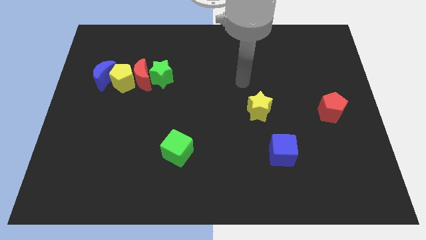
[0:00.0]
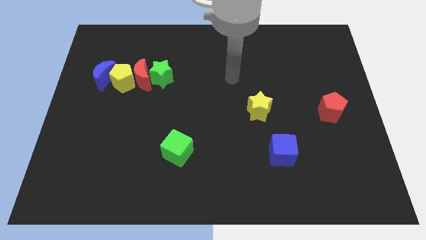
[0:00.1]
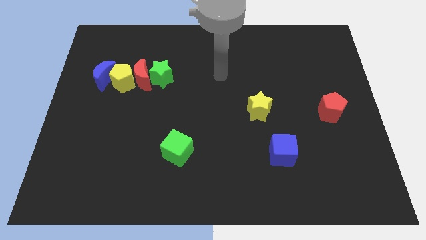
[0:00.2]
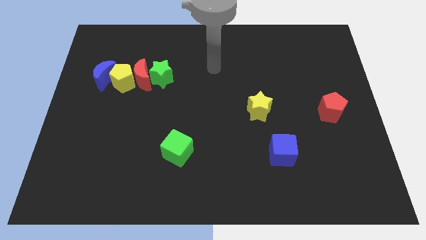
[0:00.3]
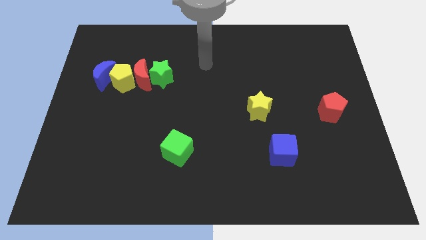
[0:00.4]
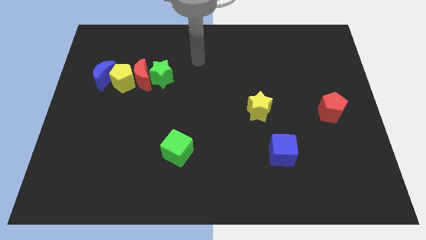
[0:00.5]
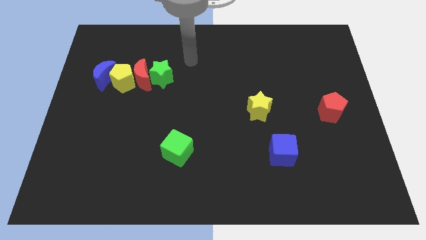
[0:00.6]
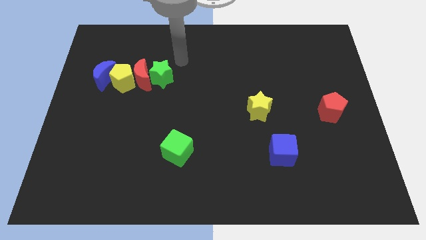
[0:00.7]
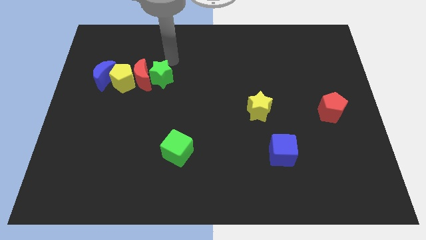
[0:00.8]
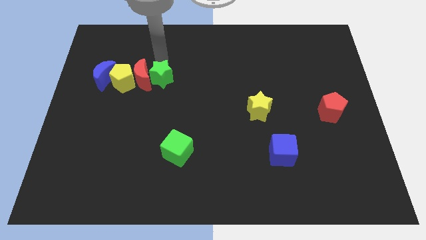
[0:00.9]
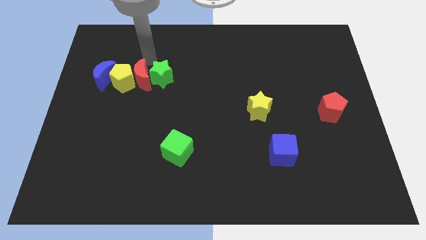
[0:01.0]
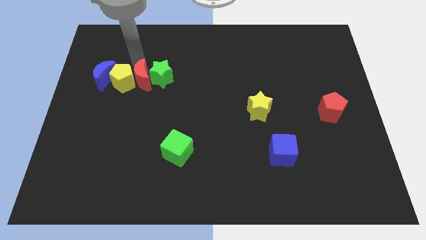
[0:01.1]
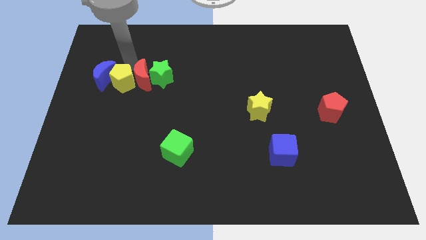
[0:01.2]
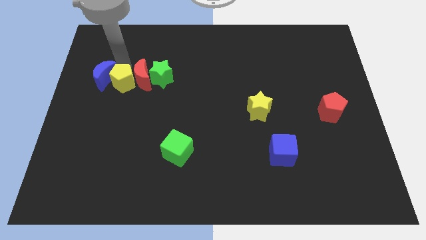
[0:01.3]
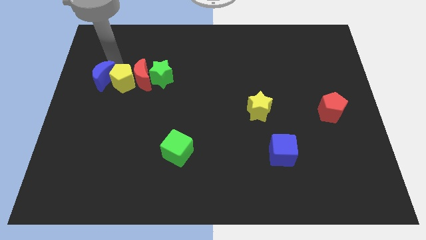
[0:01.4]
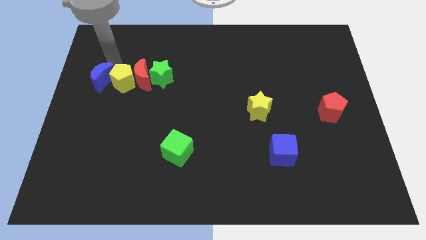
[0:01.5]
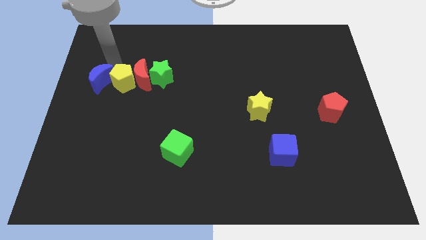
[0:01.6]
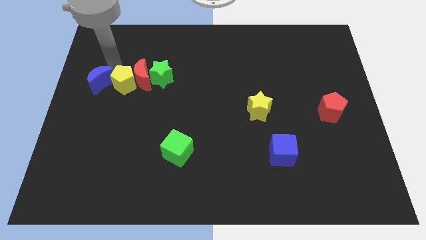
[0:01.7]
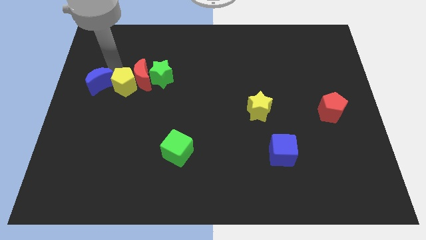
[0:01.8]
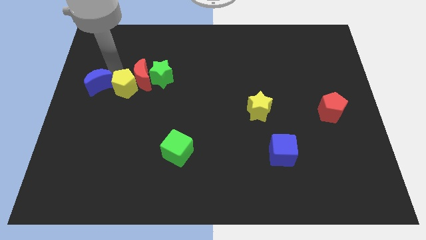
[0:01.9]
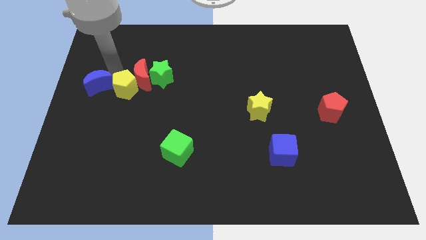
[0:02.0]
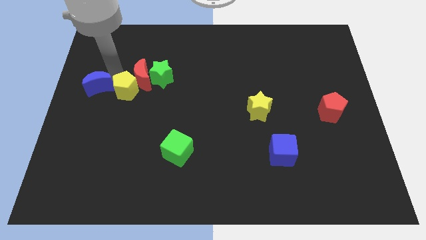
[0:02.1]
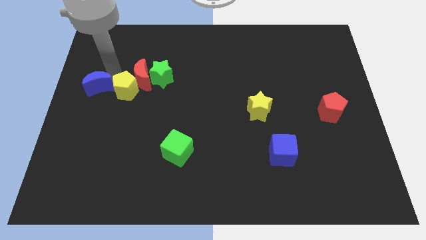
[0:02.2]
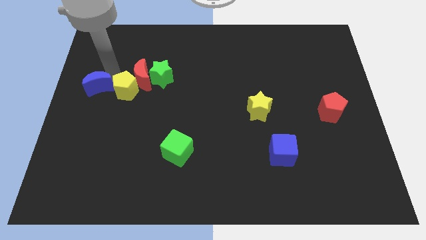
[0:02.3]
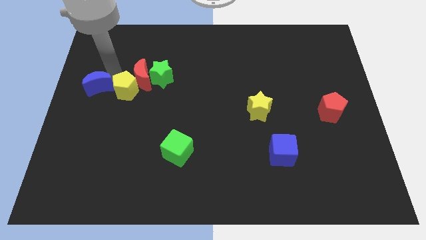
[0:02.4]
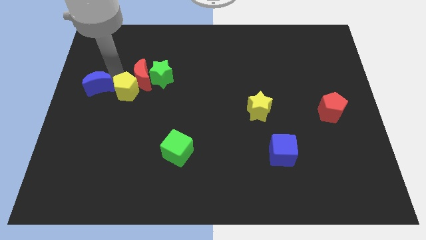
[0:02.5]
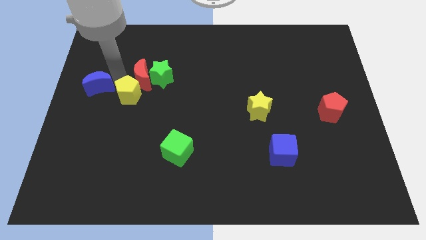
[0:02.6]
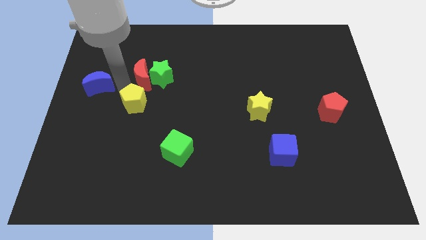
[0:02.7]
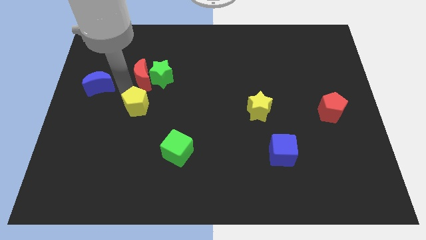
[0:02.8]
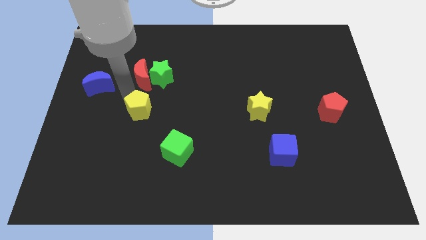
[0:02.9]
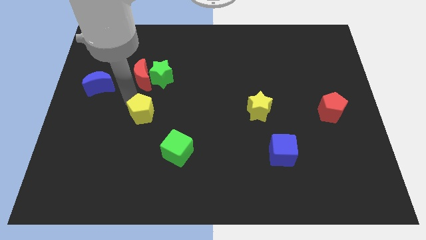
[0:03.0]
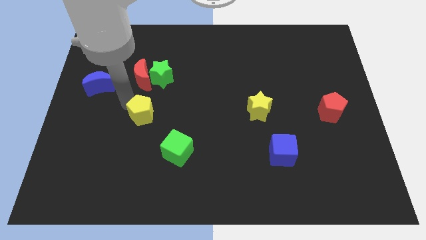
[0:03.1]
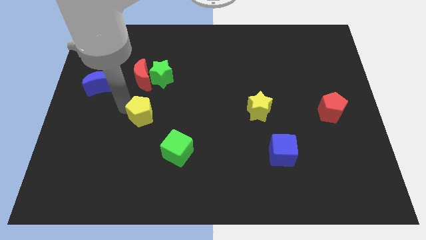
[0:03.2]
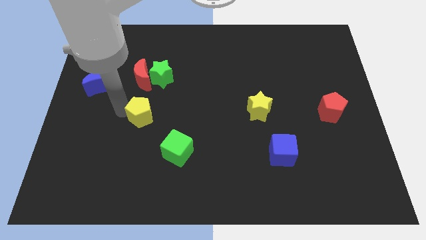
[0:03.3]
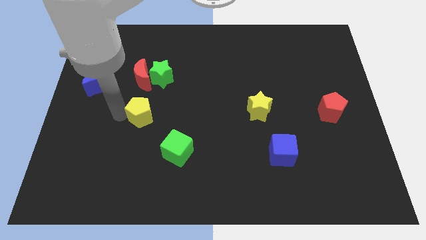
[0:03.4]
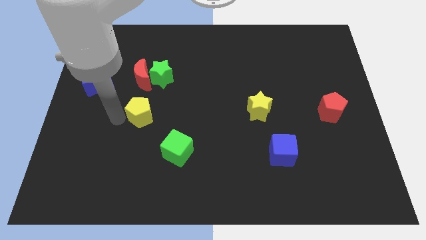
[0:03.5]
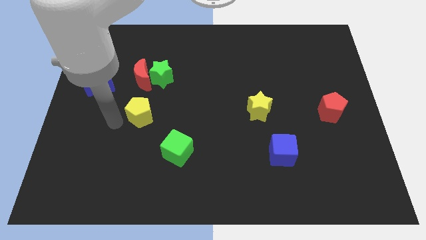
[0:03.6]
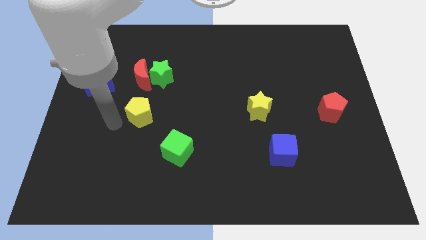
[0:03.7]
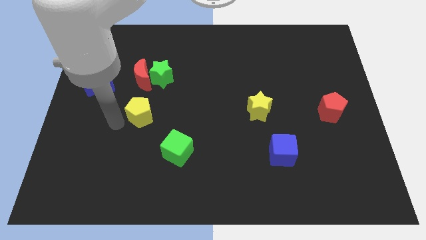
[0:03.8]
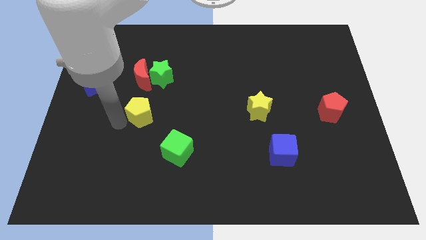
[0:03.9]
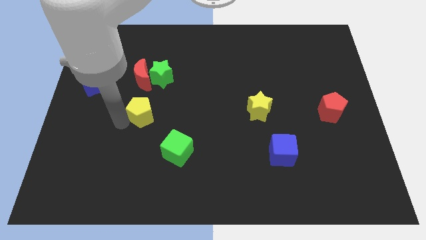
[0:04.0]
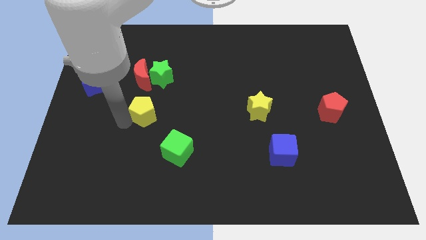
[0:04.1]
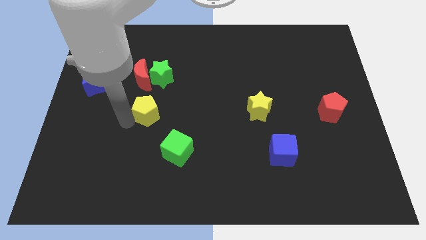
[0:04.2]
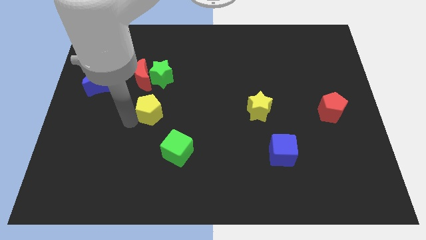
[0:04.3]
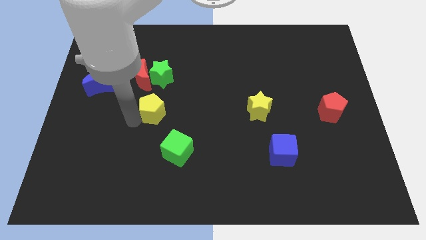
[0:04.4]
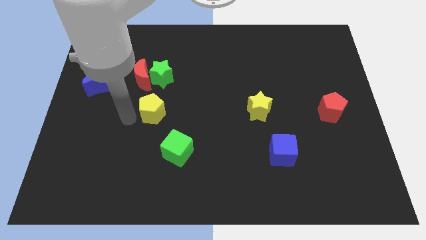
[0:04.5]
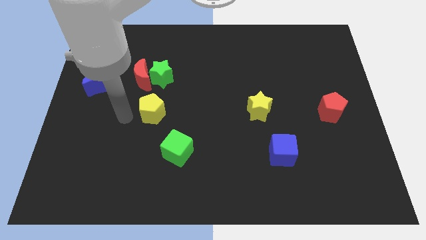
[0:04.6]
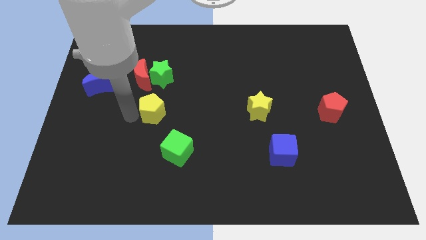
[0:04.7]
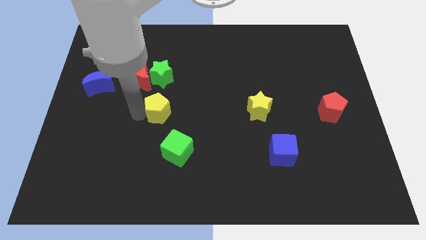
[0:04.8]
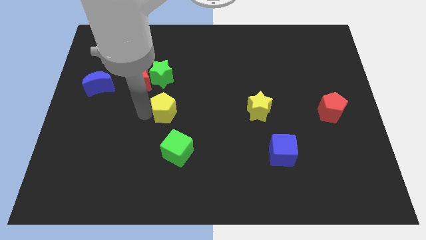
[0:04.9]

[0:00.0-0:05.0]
slide the yellow pentagon to the center of the board

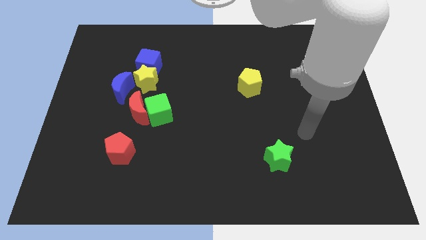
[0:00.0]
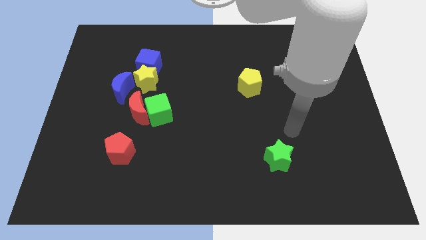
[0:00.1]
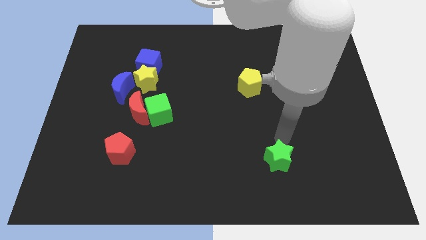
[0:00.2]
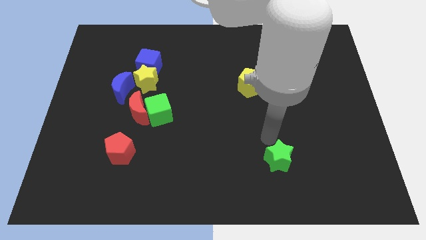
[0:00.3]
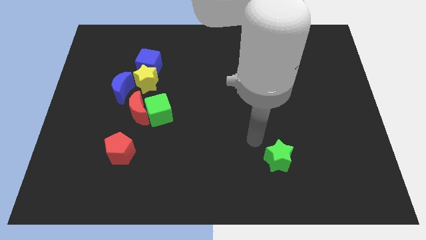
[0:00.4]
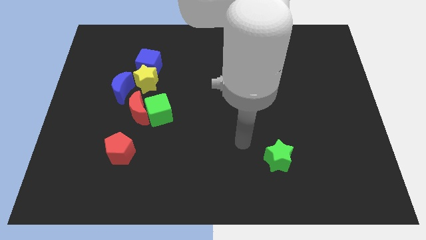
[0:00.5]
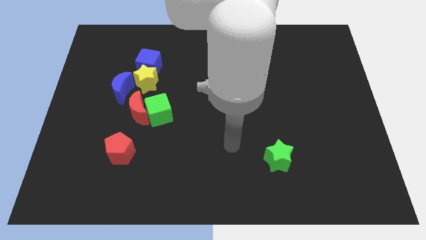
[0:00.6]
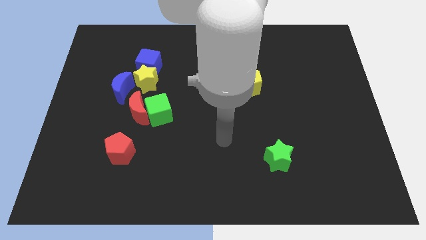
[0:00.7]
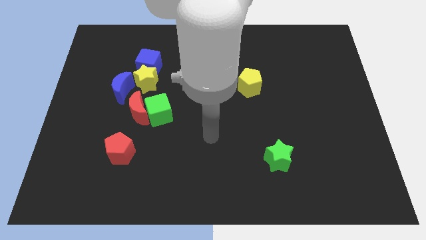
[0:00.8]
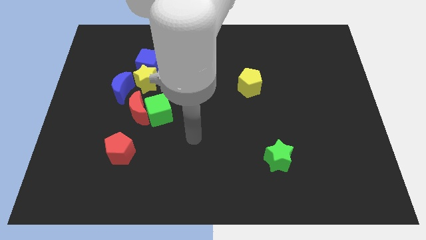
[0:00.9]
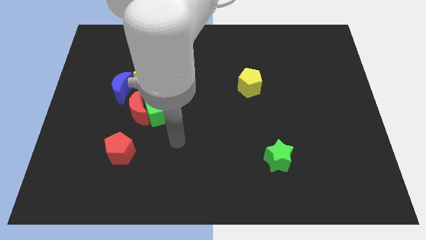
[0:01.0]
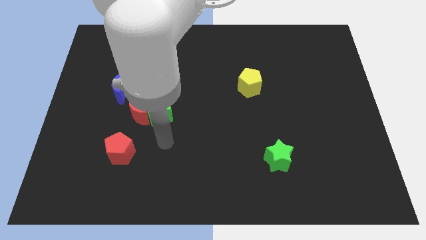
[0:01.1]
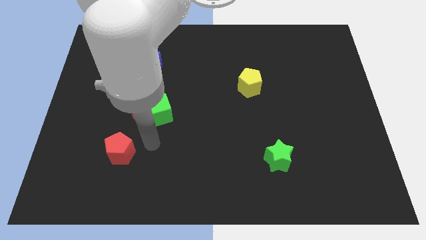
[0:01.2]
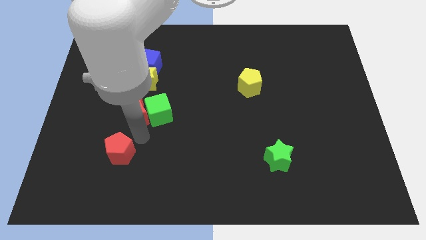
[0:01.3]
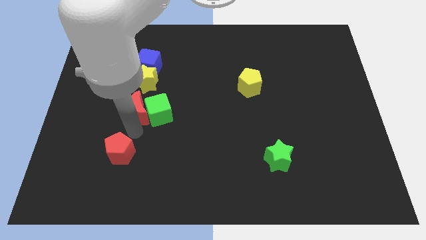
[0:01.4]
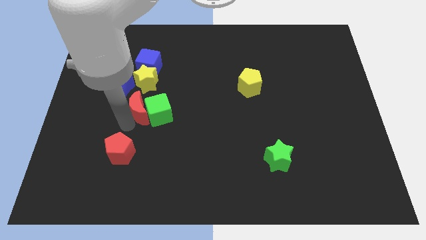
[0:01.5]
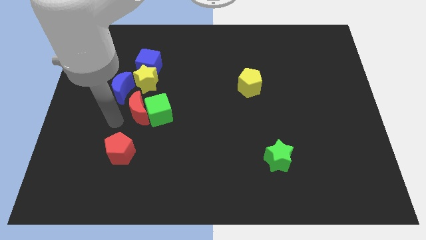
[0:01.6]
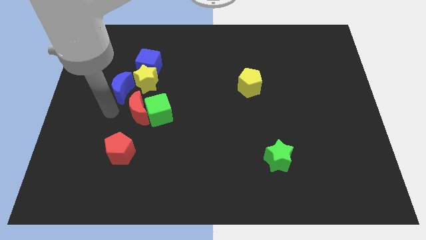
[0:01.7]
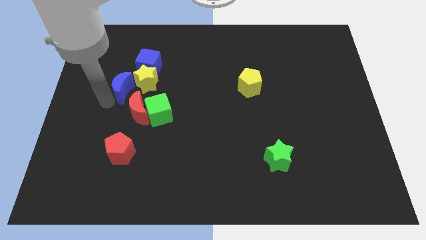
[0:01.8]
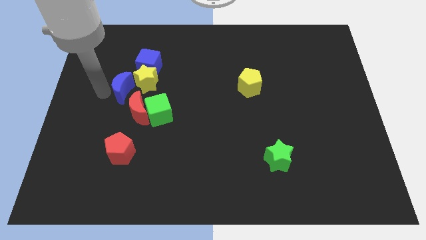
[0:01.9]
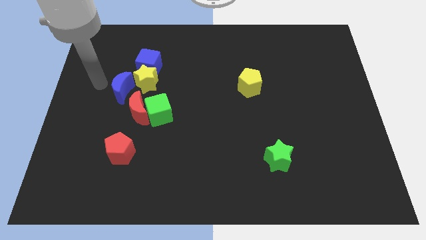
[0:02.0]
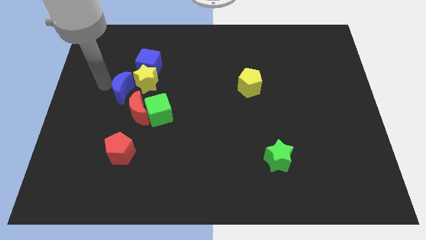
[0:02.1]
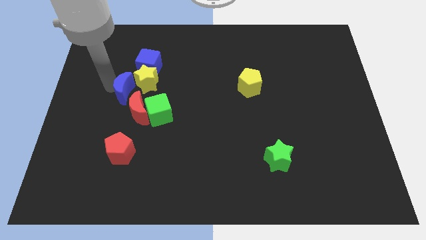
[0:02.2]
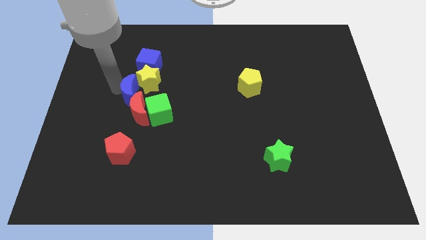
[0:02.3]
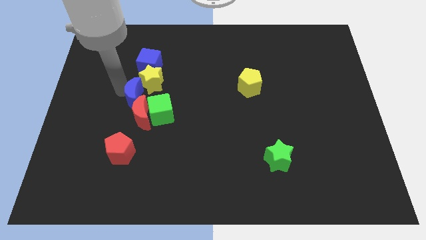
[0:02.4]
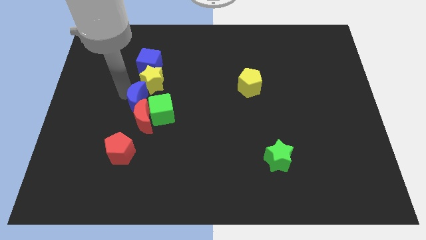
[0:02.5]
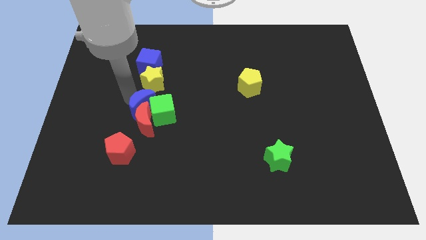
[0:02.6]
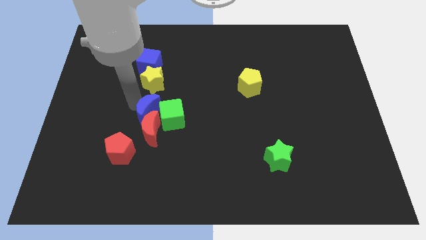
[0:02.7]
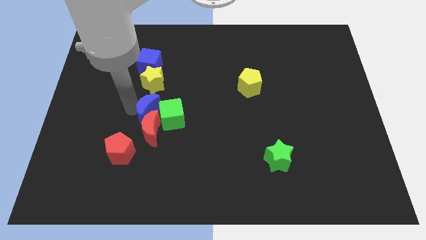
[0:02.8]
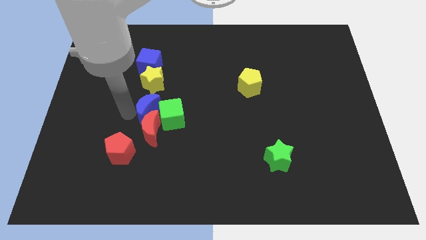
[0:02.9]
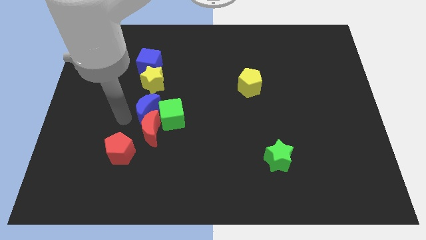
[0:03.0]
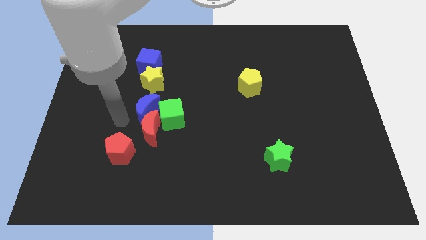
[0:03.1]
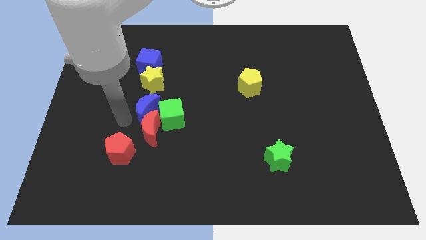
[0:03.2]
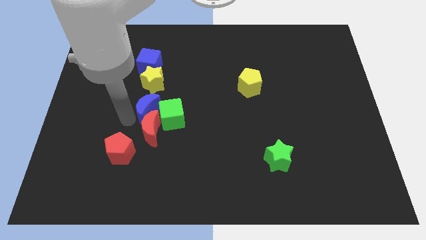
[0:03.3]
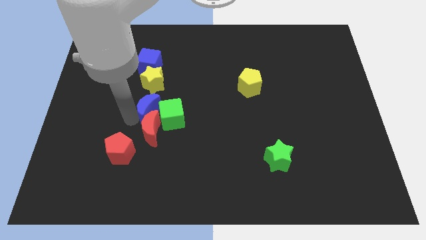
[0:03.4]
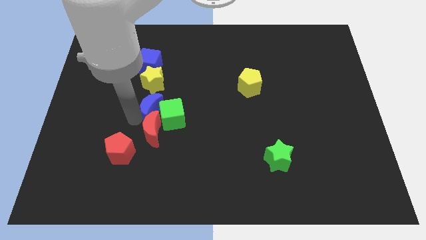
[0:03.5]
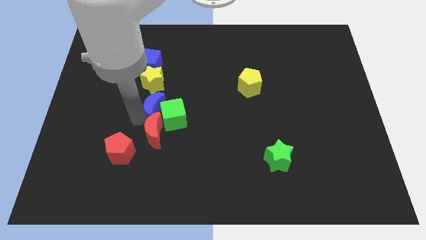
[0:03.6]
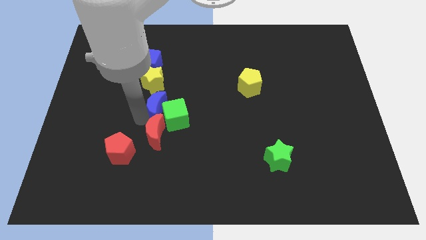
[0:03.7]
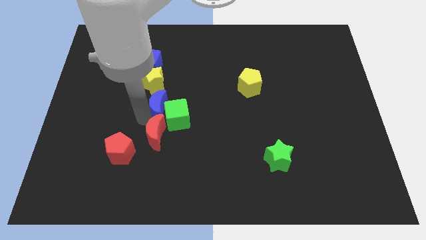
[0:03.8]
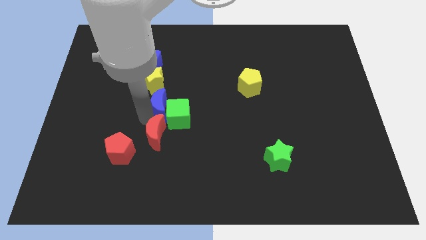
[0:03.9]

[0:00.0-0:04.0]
slide the blue moon to the middle
